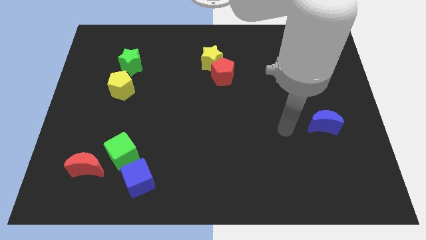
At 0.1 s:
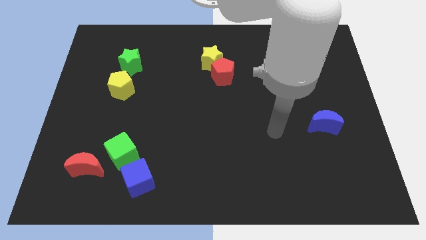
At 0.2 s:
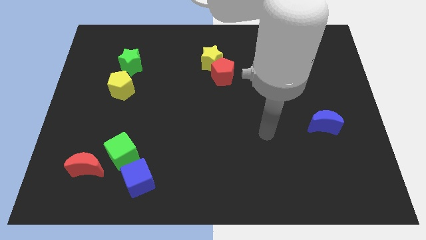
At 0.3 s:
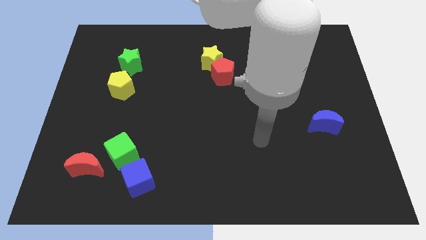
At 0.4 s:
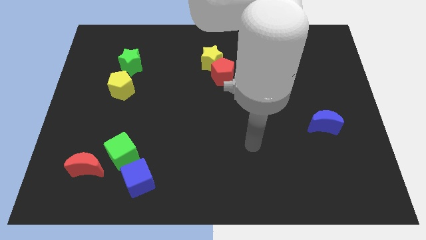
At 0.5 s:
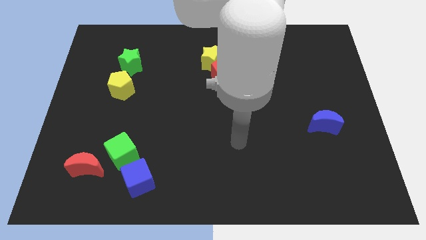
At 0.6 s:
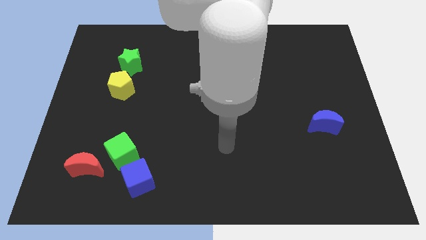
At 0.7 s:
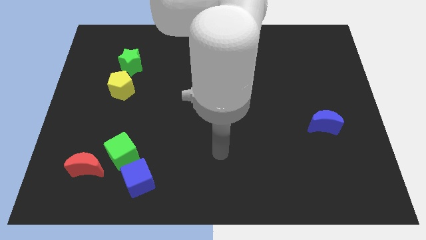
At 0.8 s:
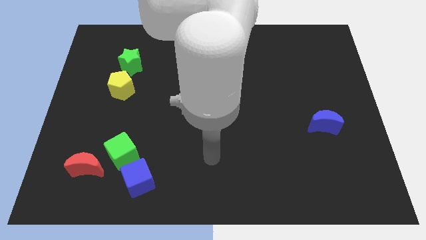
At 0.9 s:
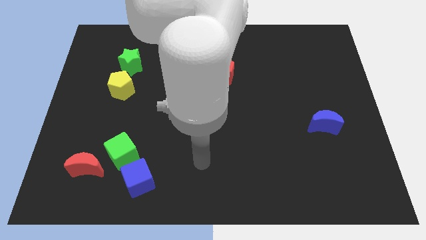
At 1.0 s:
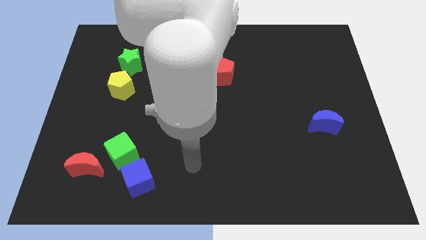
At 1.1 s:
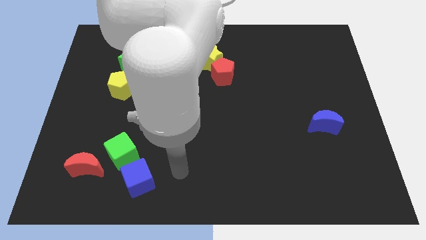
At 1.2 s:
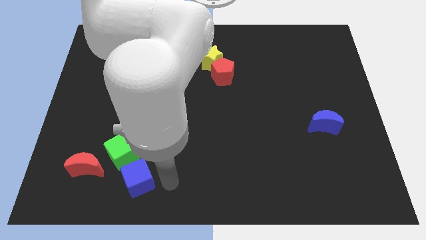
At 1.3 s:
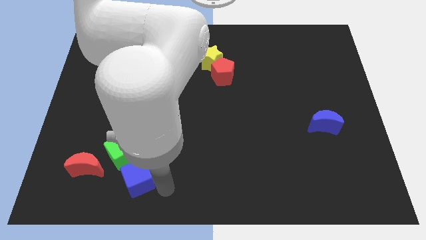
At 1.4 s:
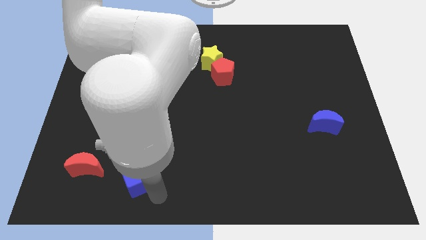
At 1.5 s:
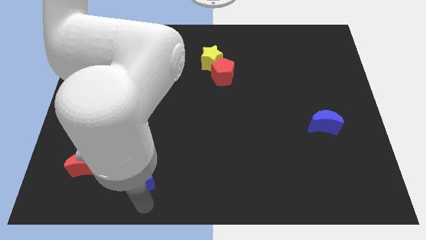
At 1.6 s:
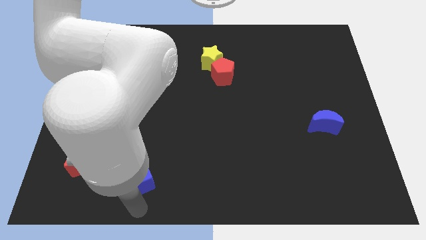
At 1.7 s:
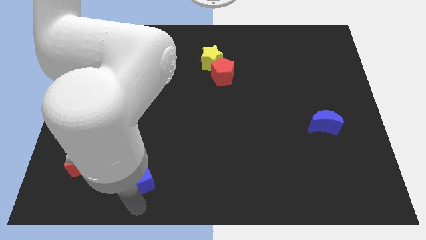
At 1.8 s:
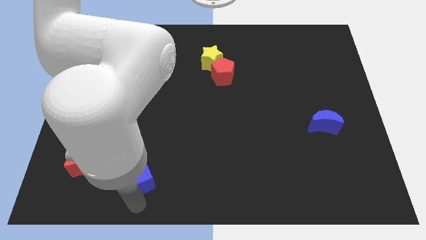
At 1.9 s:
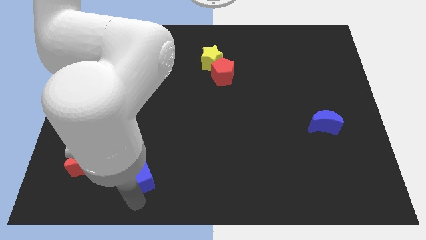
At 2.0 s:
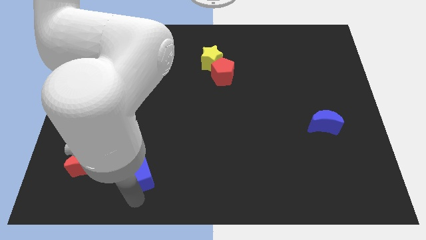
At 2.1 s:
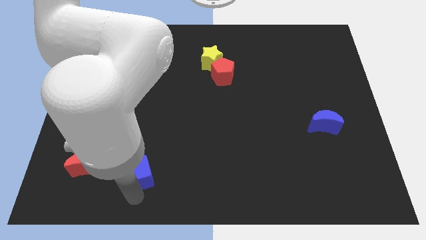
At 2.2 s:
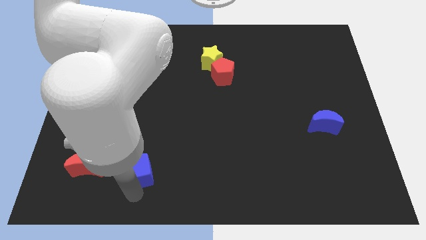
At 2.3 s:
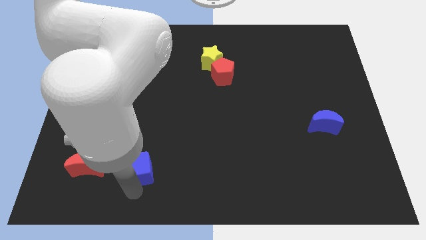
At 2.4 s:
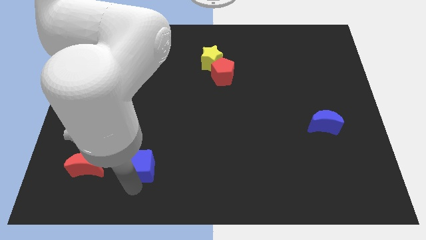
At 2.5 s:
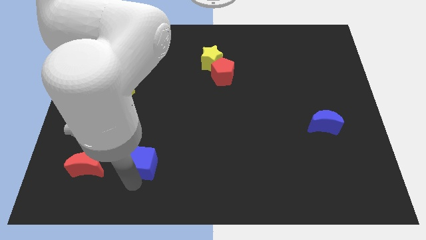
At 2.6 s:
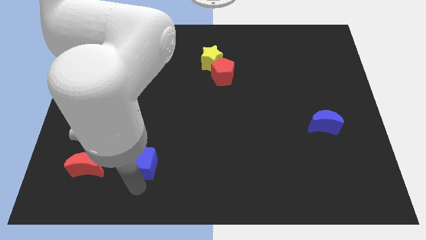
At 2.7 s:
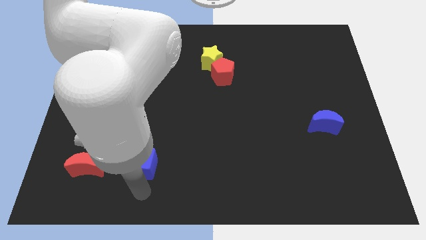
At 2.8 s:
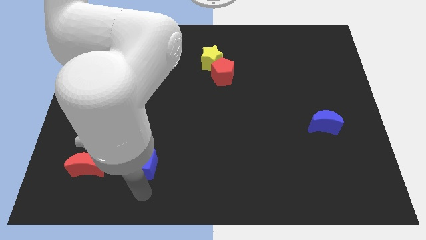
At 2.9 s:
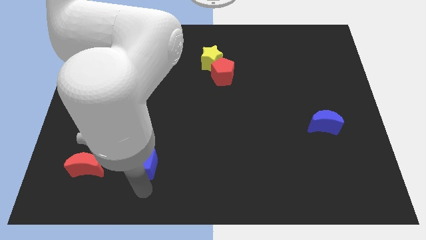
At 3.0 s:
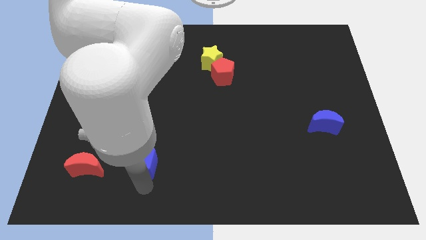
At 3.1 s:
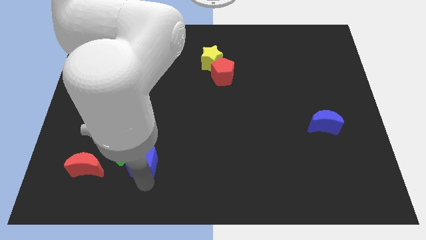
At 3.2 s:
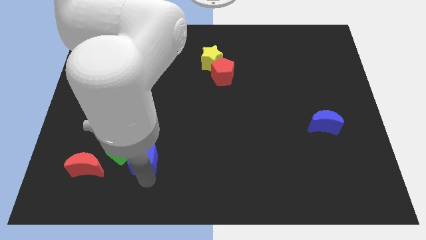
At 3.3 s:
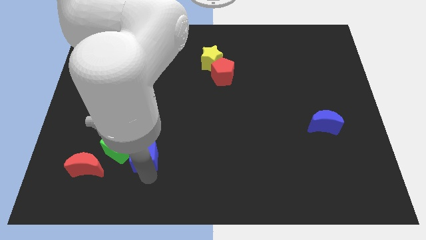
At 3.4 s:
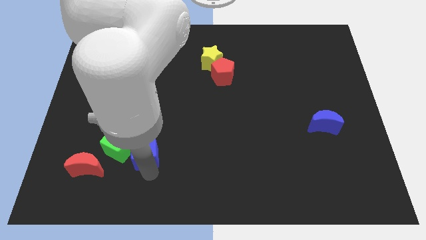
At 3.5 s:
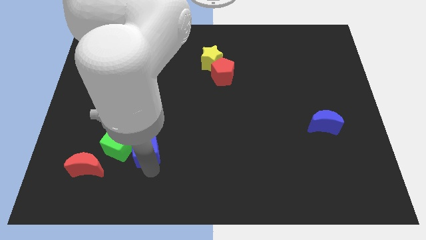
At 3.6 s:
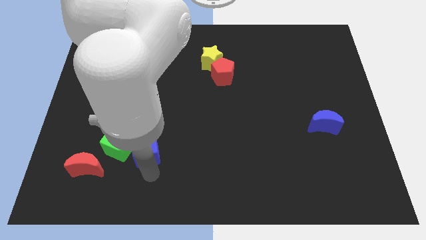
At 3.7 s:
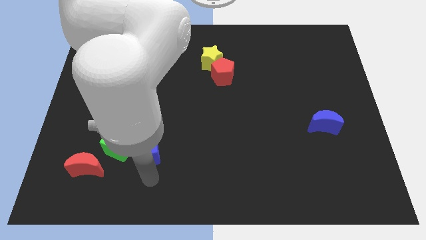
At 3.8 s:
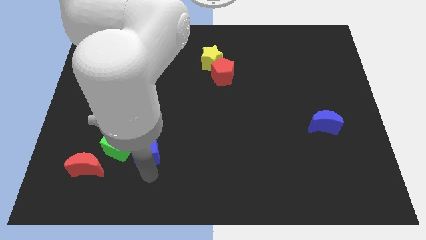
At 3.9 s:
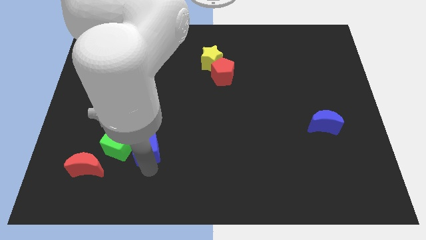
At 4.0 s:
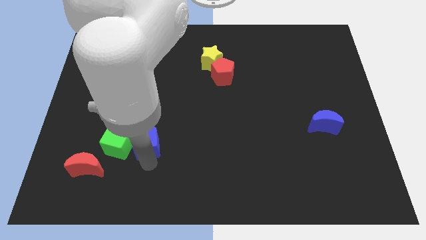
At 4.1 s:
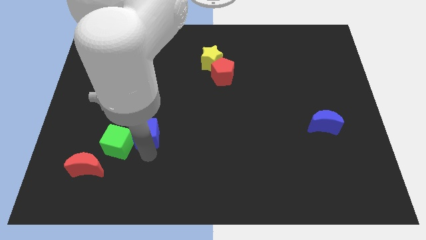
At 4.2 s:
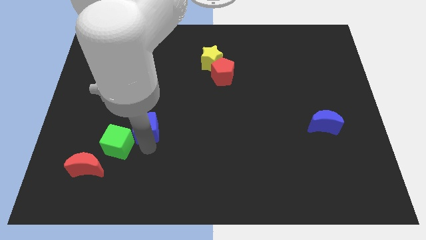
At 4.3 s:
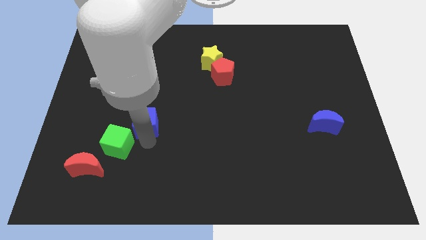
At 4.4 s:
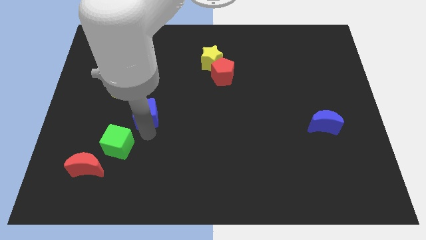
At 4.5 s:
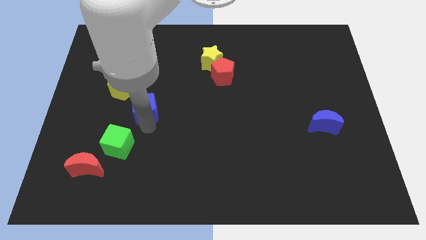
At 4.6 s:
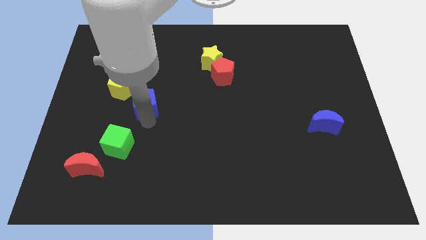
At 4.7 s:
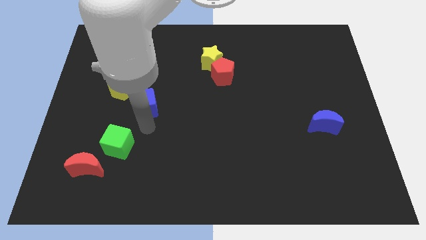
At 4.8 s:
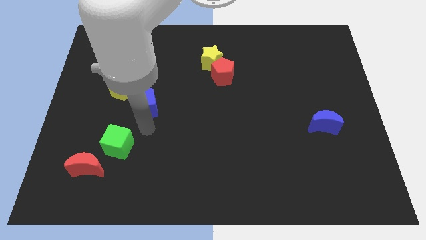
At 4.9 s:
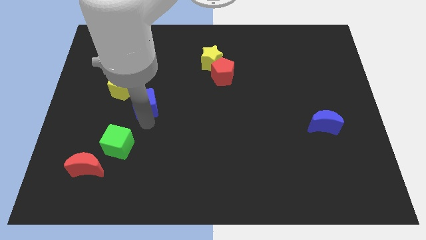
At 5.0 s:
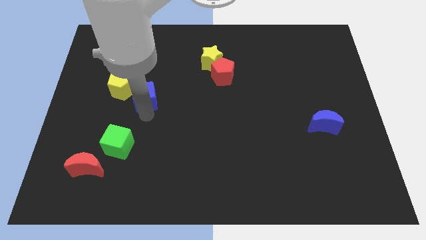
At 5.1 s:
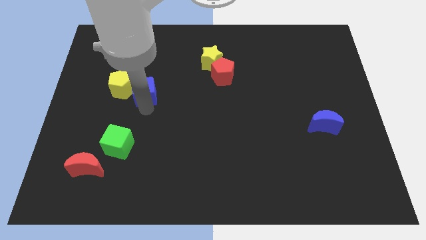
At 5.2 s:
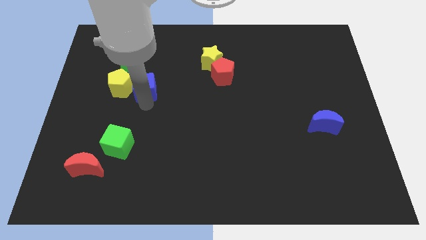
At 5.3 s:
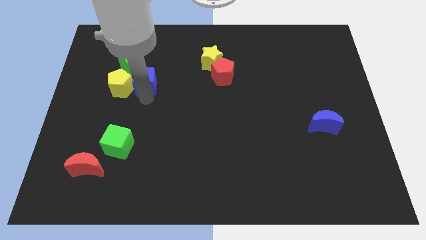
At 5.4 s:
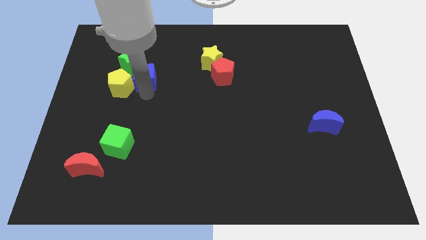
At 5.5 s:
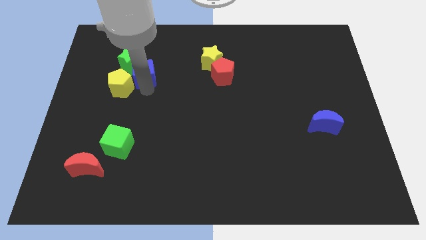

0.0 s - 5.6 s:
push the blue cube close to the green star

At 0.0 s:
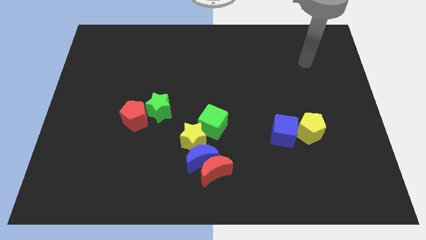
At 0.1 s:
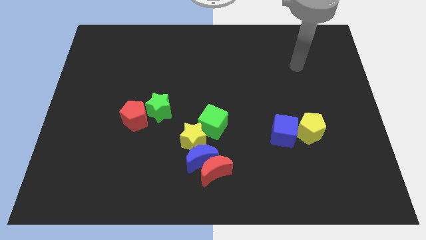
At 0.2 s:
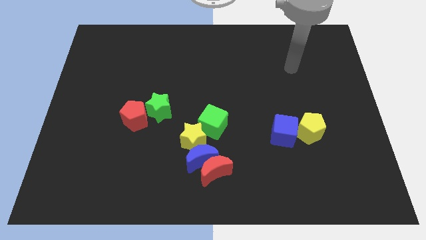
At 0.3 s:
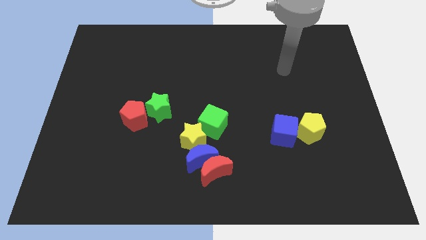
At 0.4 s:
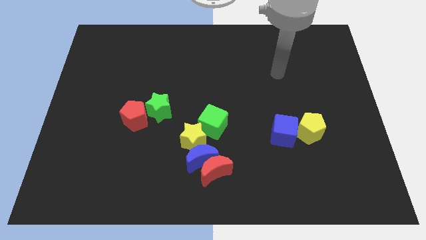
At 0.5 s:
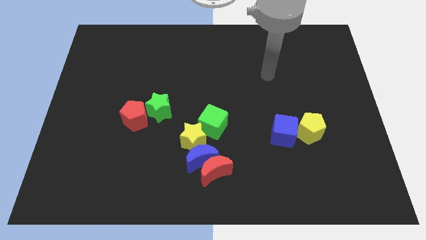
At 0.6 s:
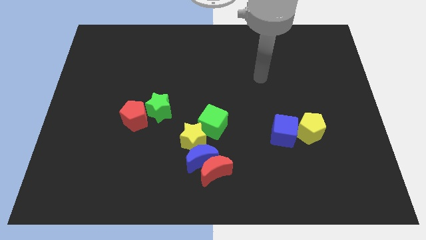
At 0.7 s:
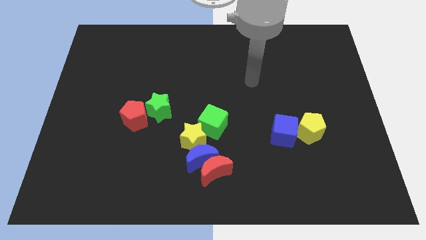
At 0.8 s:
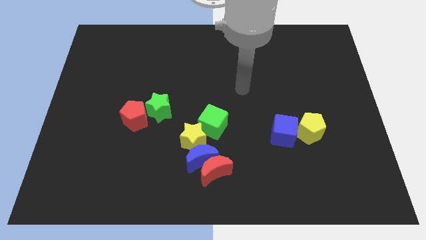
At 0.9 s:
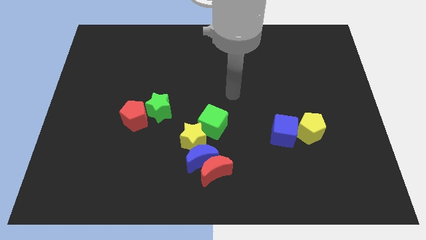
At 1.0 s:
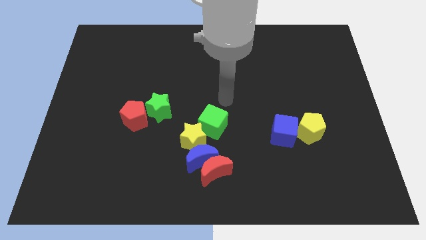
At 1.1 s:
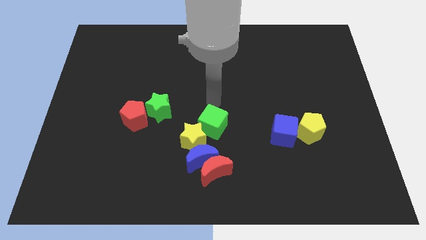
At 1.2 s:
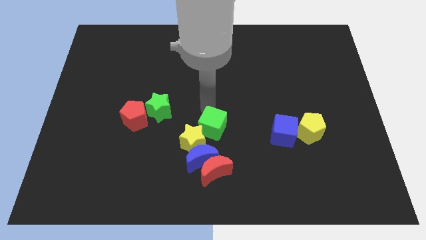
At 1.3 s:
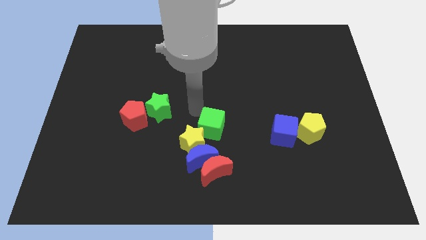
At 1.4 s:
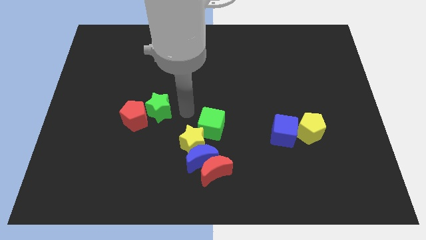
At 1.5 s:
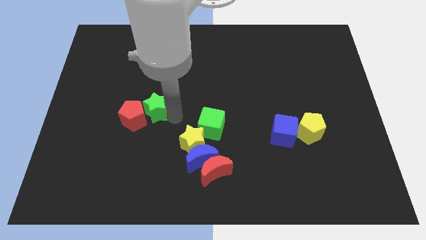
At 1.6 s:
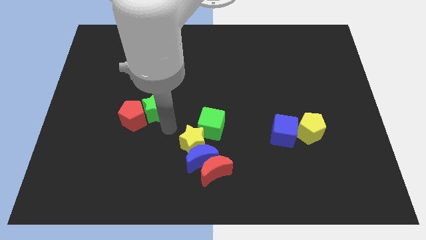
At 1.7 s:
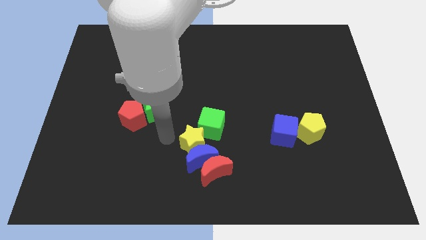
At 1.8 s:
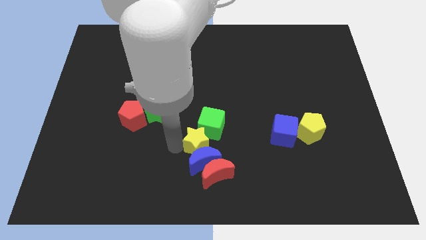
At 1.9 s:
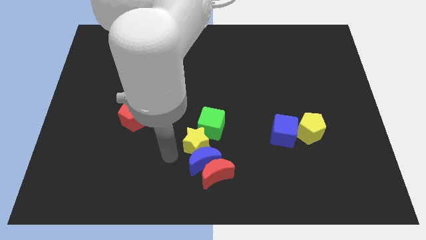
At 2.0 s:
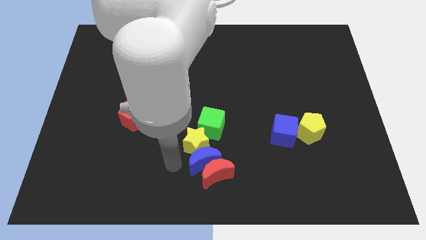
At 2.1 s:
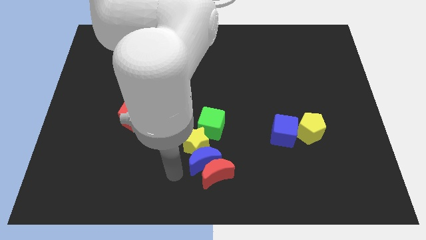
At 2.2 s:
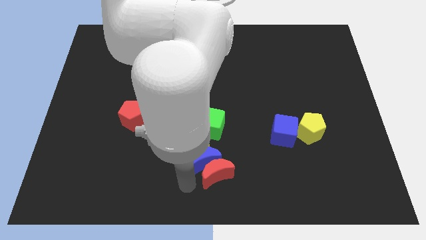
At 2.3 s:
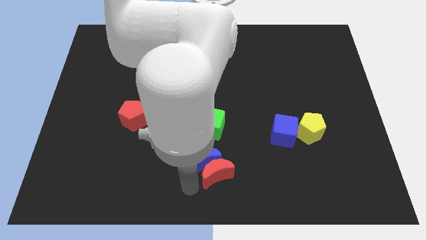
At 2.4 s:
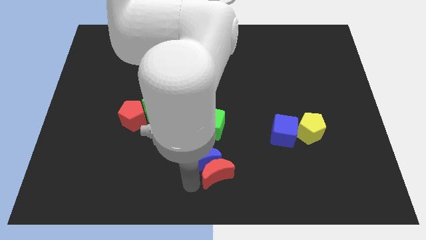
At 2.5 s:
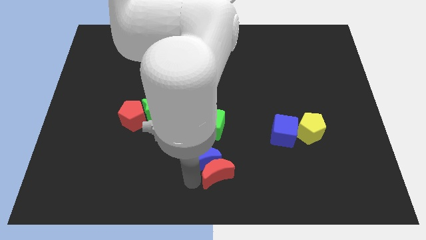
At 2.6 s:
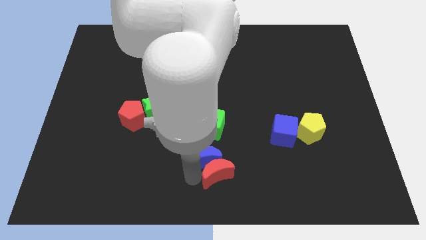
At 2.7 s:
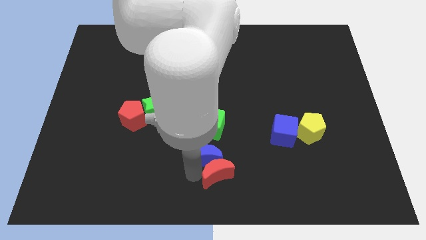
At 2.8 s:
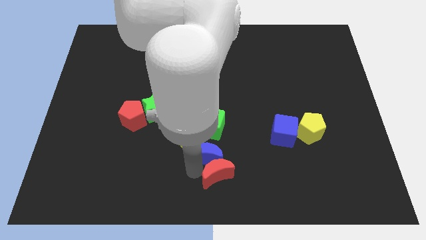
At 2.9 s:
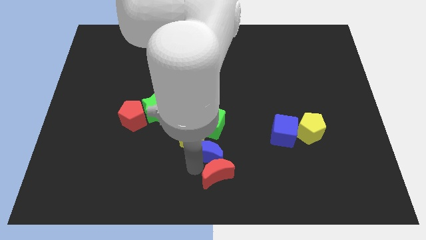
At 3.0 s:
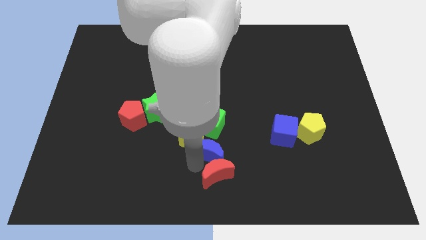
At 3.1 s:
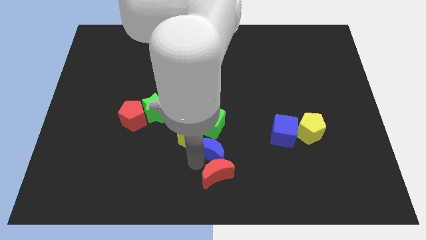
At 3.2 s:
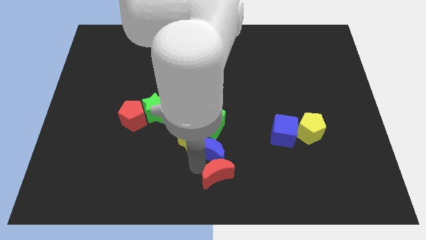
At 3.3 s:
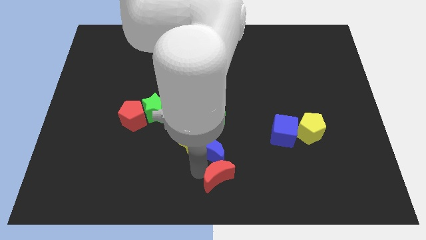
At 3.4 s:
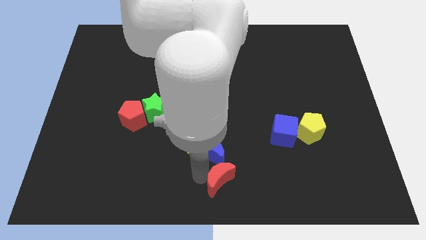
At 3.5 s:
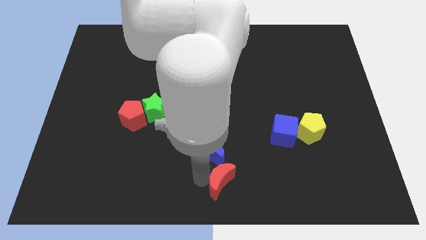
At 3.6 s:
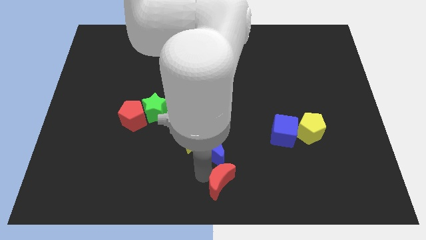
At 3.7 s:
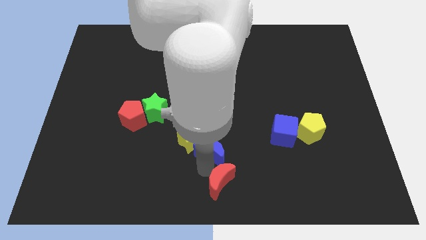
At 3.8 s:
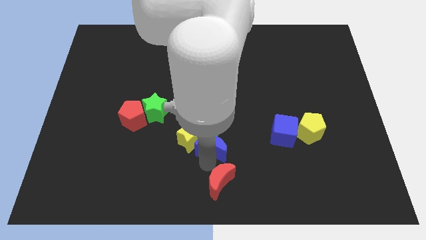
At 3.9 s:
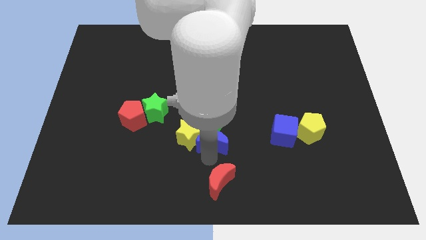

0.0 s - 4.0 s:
move the blue moon towards the green cube
